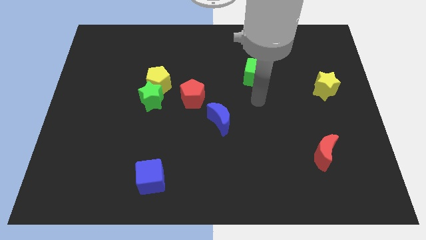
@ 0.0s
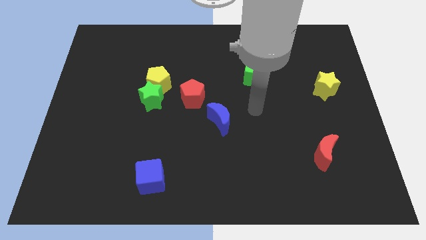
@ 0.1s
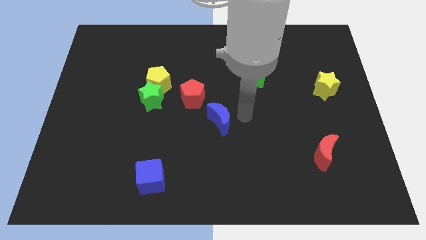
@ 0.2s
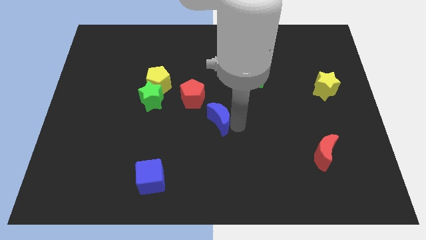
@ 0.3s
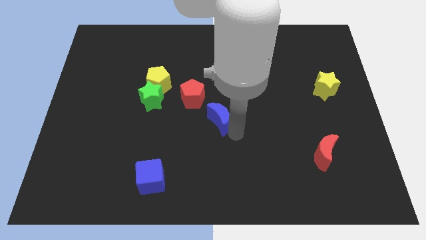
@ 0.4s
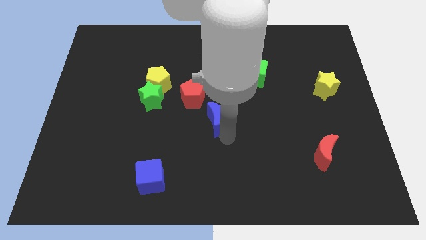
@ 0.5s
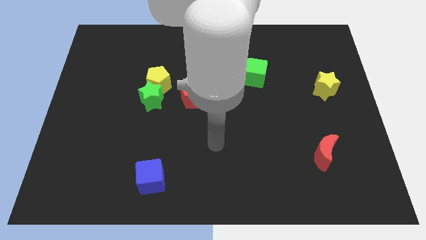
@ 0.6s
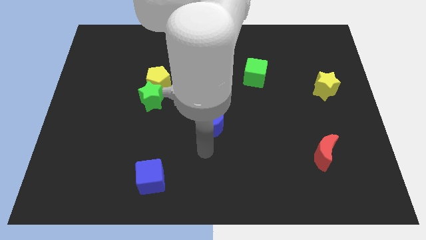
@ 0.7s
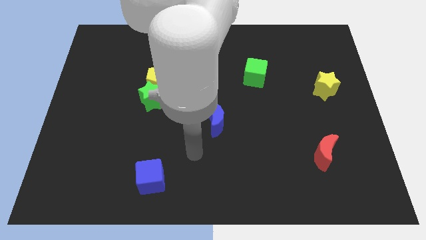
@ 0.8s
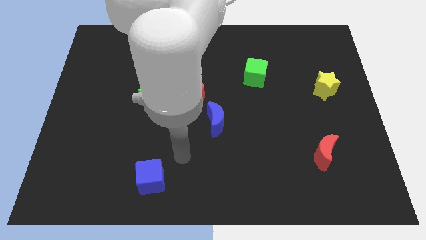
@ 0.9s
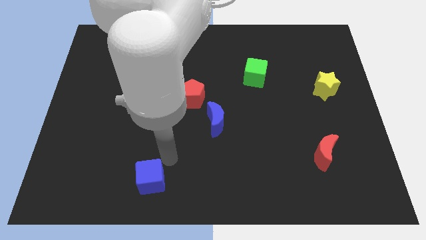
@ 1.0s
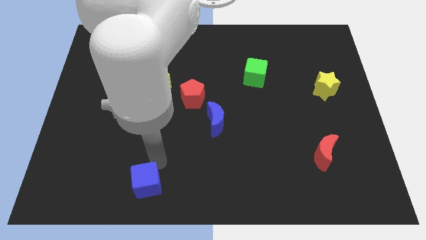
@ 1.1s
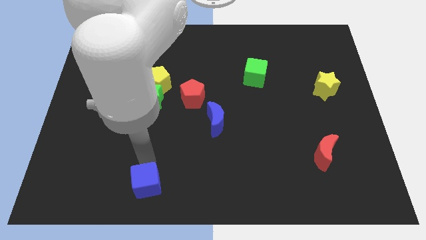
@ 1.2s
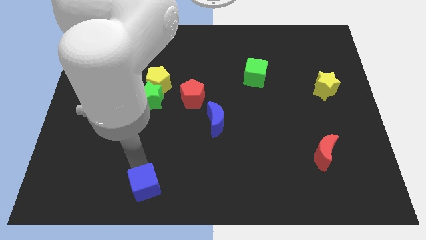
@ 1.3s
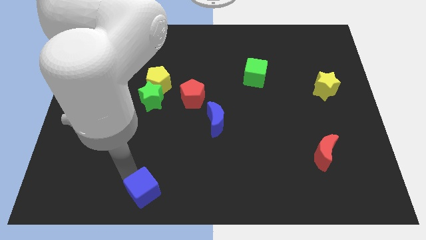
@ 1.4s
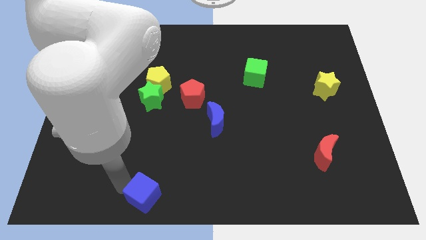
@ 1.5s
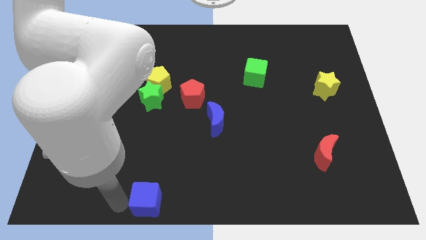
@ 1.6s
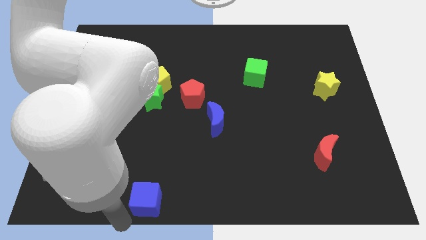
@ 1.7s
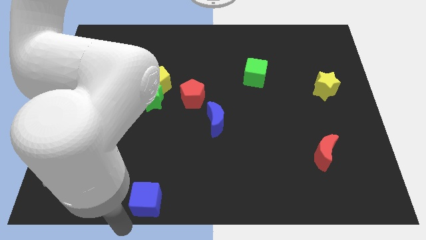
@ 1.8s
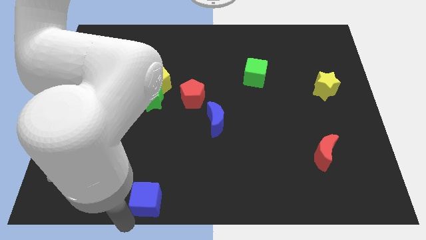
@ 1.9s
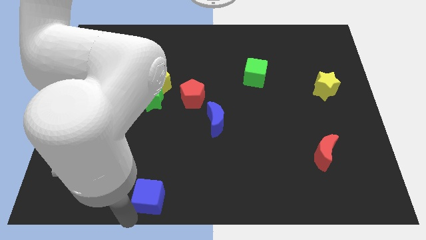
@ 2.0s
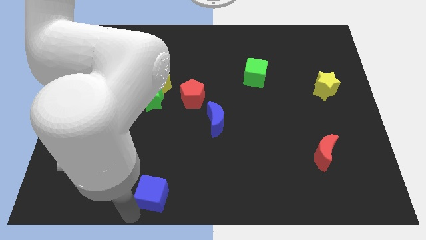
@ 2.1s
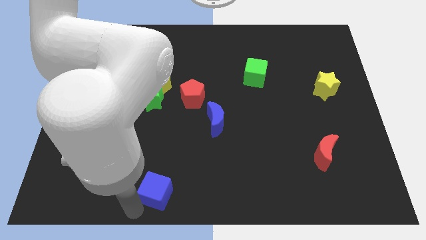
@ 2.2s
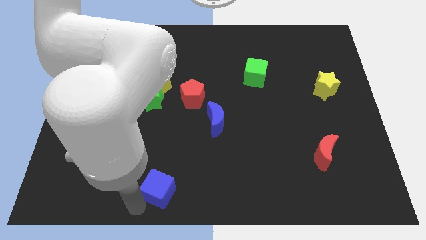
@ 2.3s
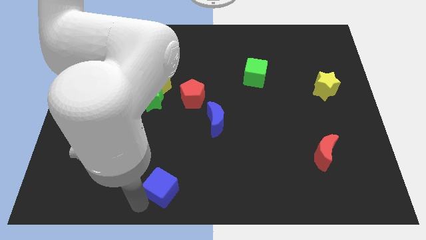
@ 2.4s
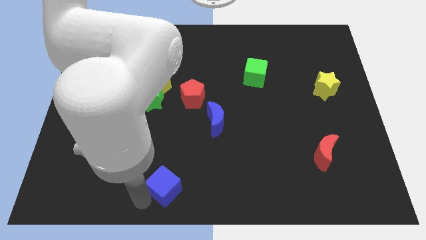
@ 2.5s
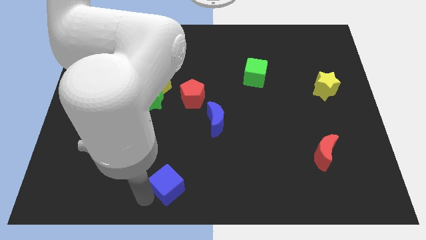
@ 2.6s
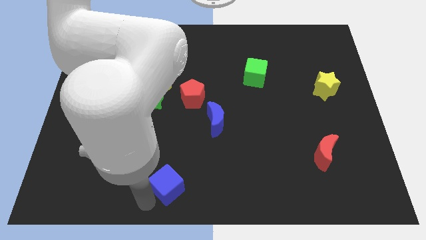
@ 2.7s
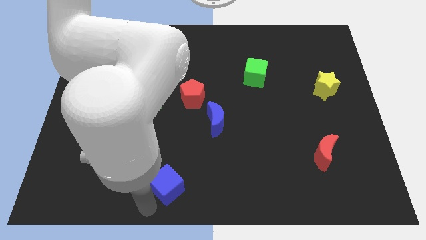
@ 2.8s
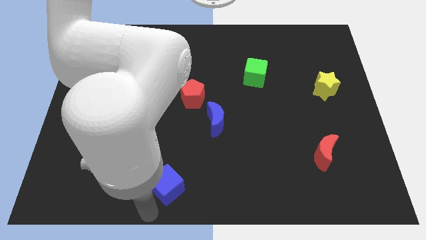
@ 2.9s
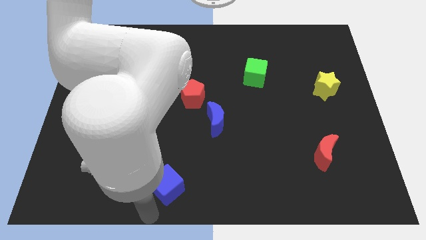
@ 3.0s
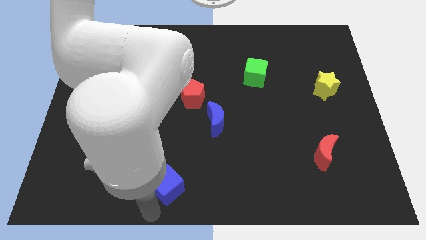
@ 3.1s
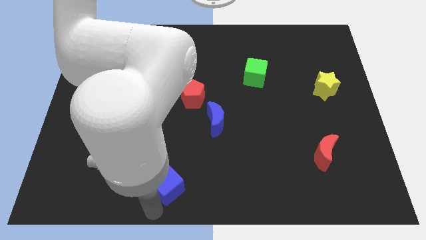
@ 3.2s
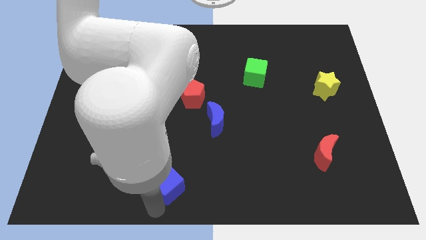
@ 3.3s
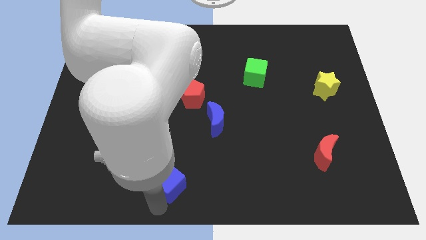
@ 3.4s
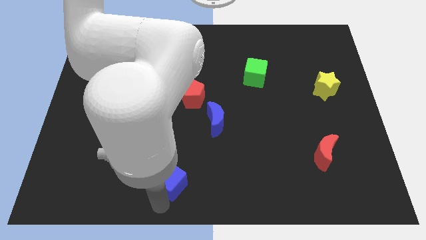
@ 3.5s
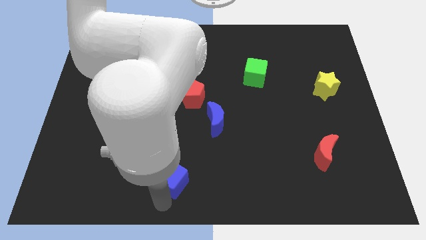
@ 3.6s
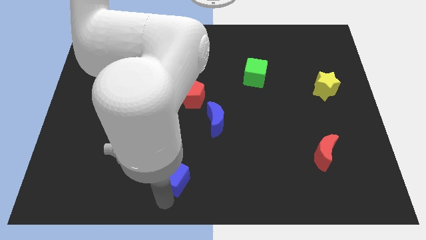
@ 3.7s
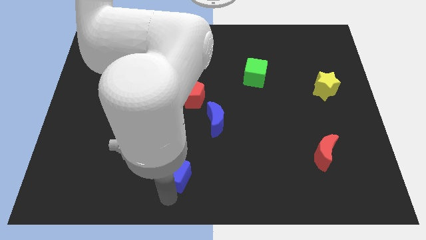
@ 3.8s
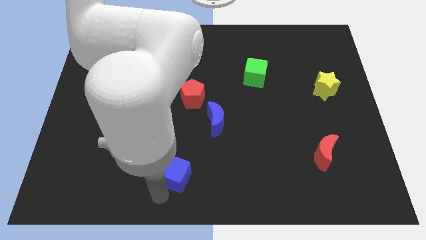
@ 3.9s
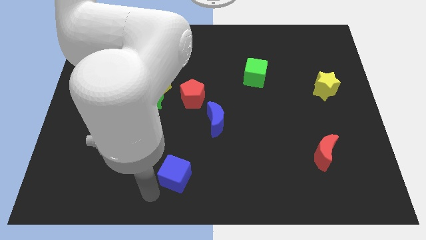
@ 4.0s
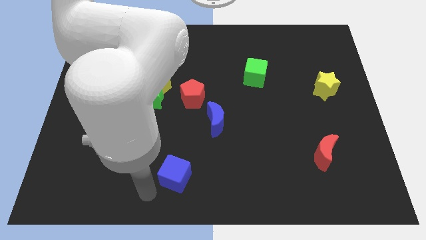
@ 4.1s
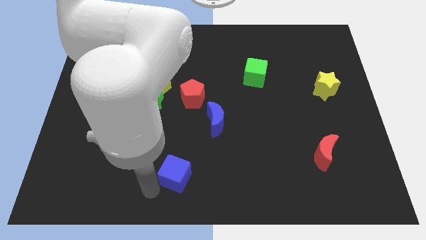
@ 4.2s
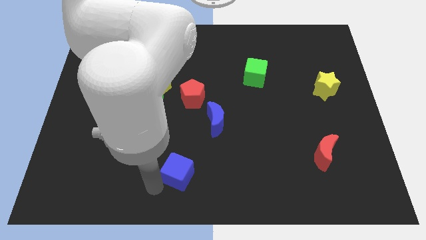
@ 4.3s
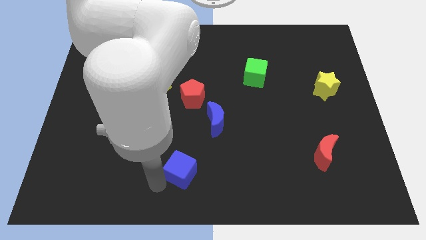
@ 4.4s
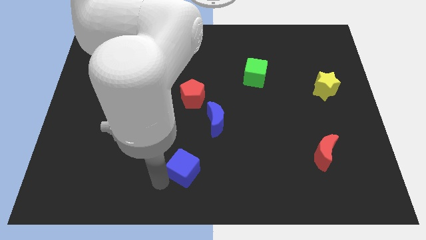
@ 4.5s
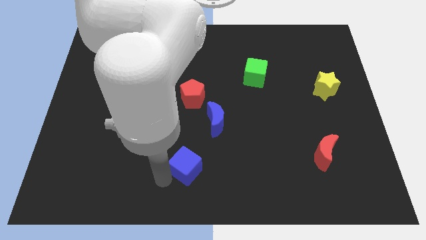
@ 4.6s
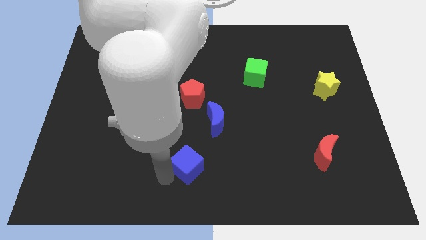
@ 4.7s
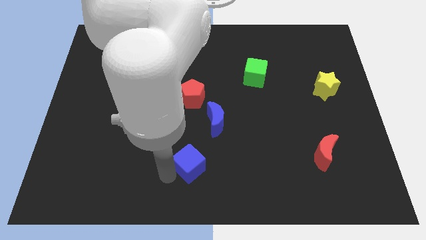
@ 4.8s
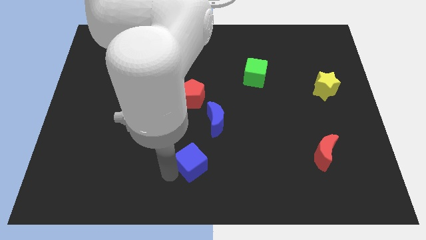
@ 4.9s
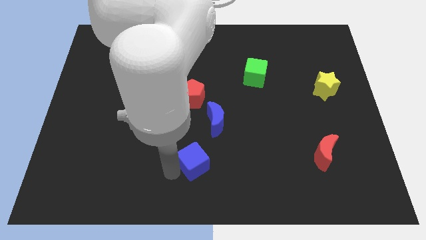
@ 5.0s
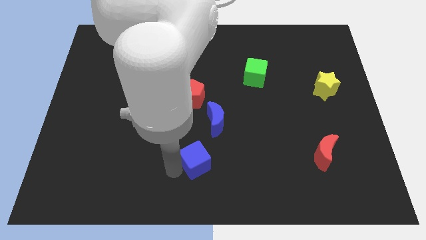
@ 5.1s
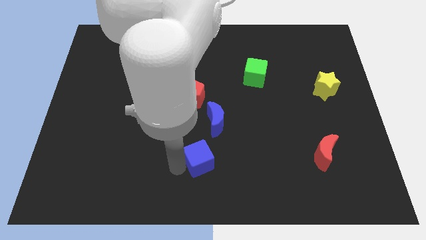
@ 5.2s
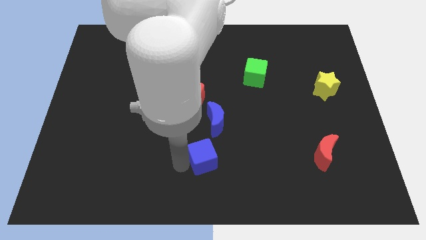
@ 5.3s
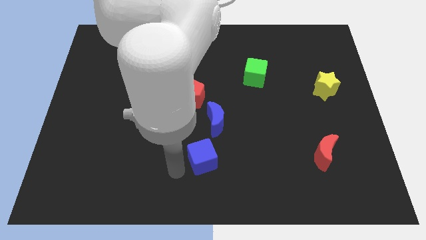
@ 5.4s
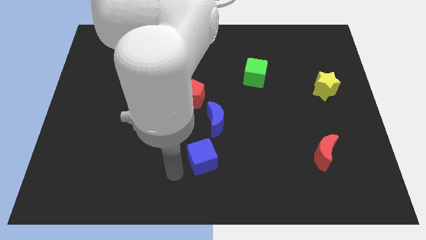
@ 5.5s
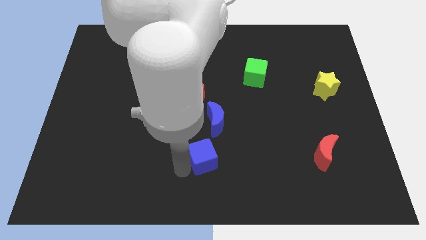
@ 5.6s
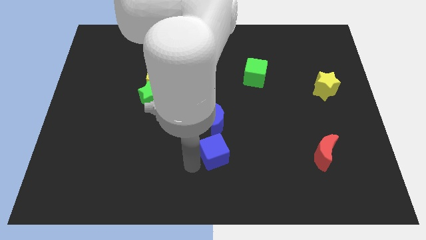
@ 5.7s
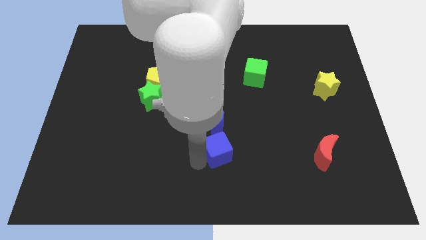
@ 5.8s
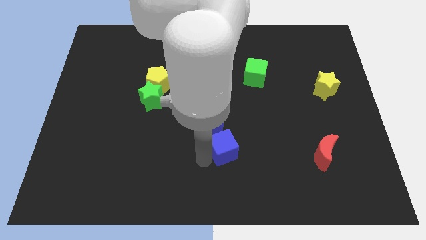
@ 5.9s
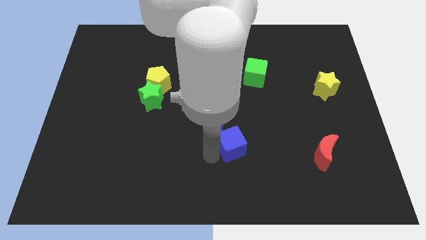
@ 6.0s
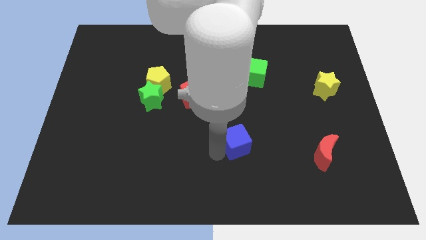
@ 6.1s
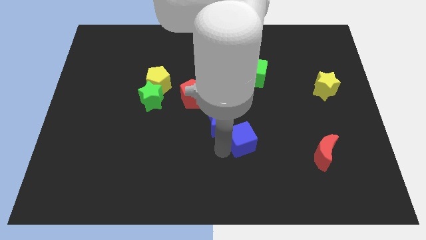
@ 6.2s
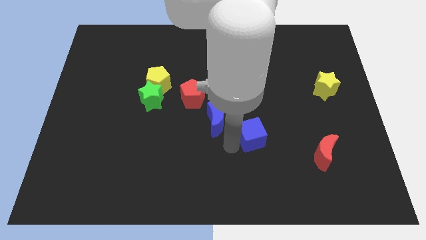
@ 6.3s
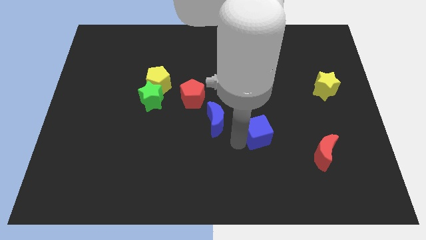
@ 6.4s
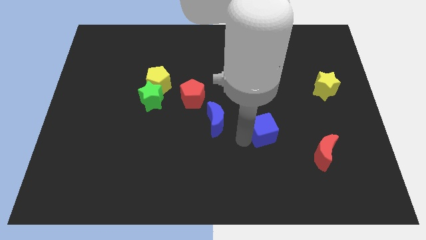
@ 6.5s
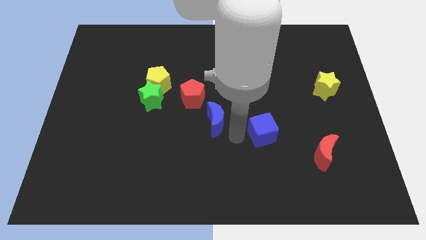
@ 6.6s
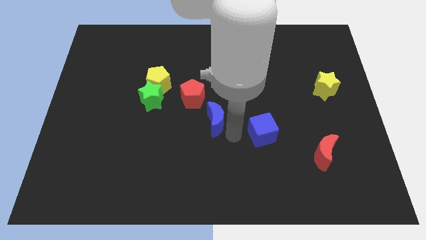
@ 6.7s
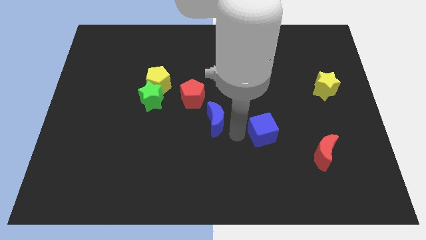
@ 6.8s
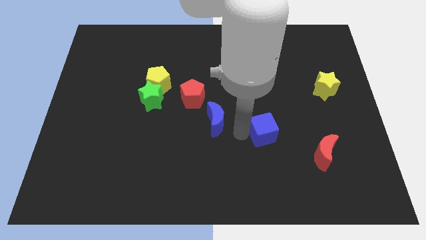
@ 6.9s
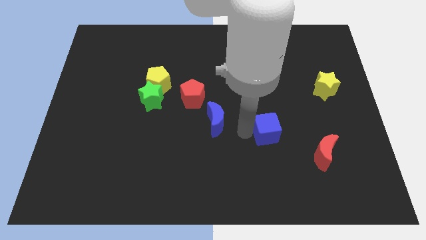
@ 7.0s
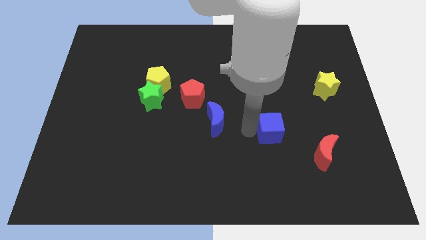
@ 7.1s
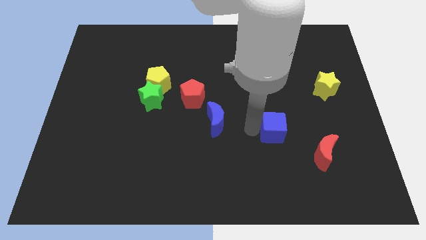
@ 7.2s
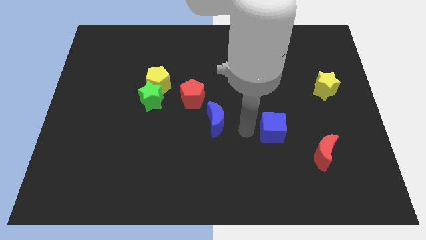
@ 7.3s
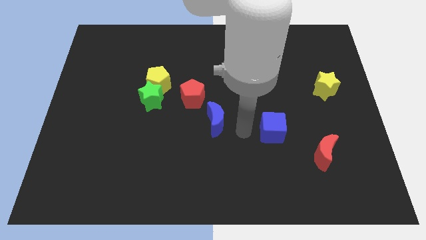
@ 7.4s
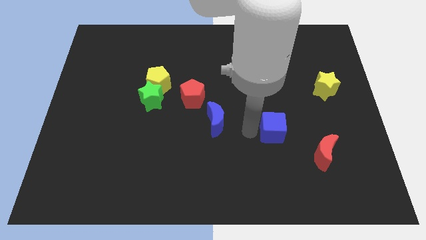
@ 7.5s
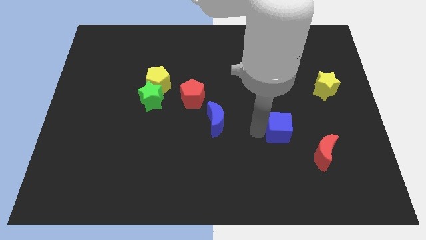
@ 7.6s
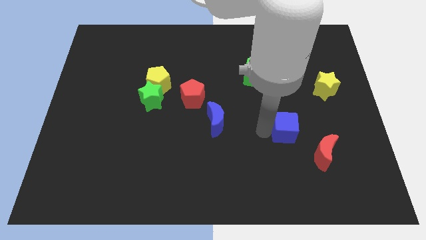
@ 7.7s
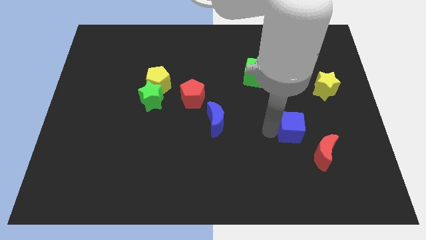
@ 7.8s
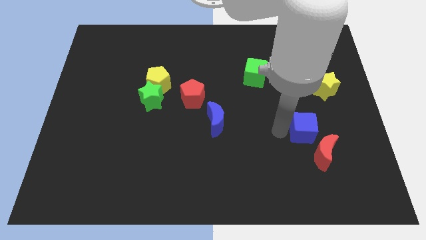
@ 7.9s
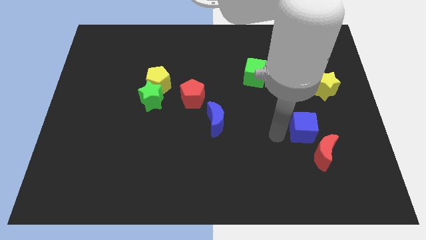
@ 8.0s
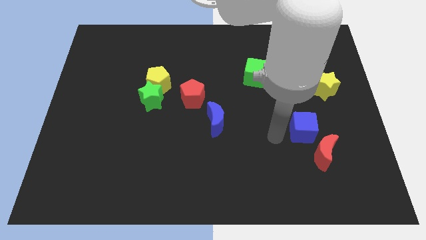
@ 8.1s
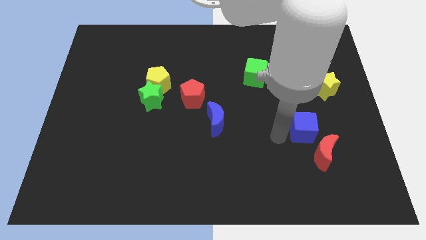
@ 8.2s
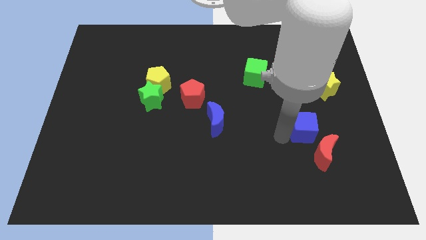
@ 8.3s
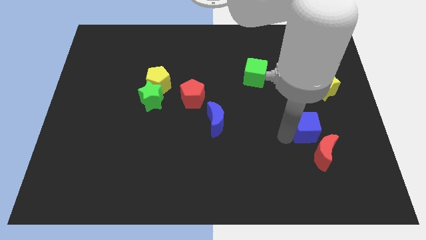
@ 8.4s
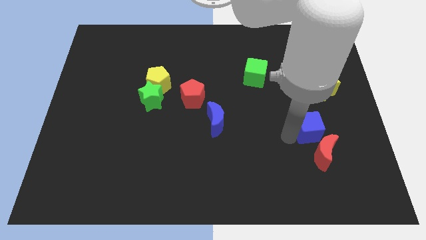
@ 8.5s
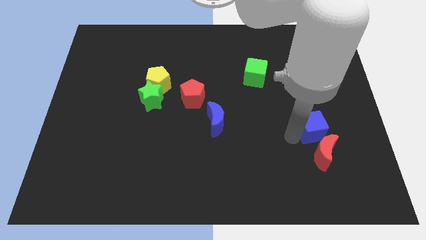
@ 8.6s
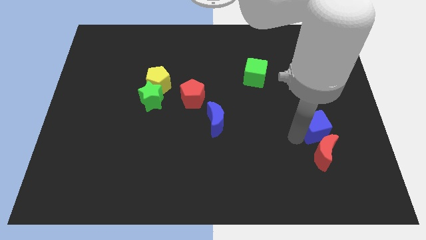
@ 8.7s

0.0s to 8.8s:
push the blue cube to the bottom side of the yellow star
